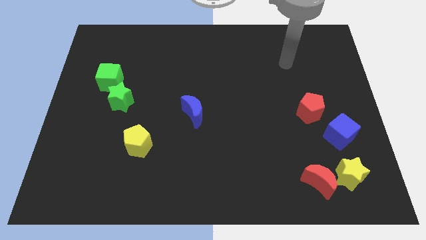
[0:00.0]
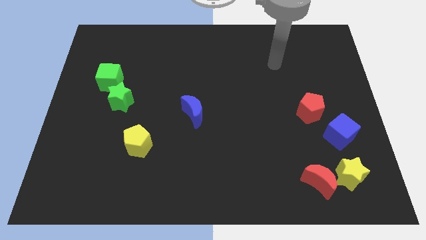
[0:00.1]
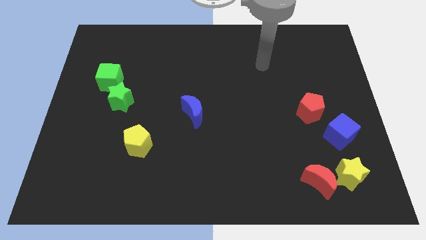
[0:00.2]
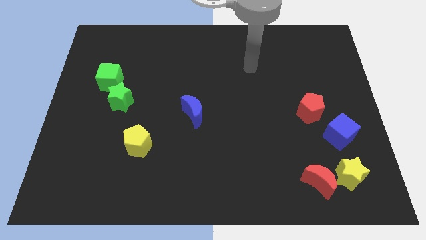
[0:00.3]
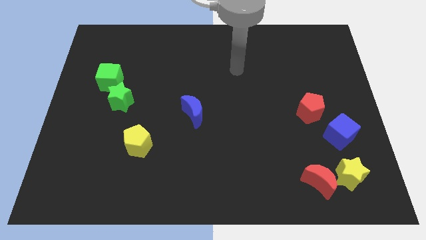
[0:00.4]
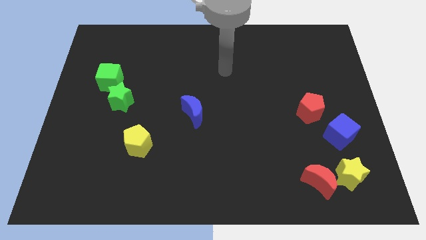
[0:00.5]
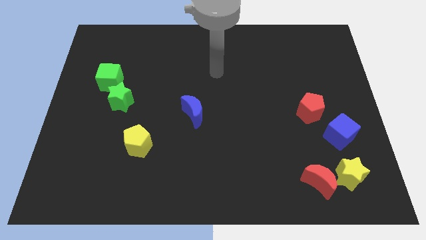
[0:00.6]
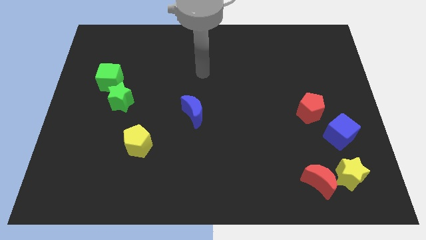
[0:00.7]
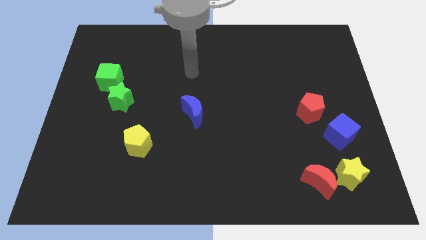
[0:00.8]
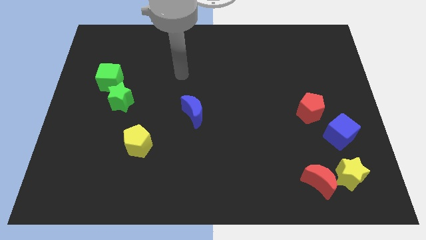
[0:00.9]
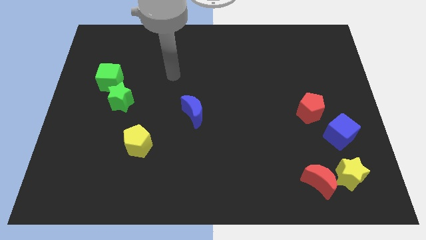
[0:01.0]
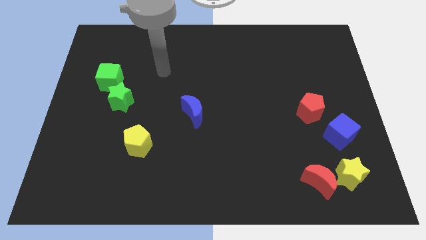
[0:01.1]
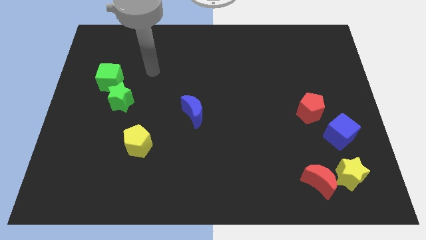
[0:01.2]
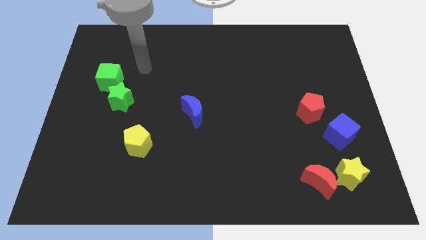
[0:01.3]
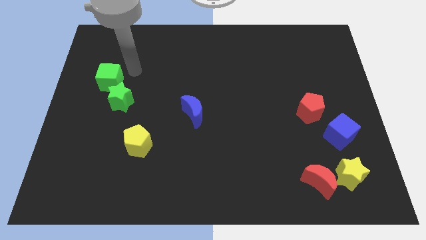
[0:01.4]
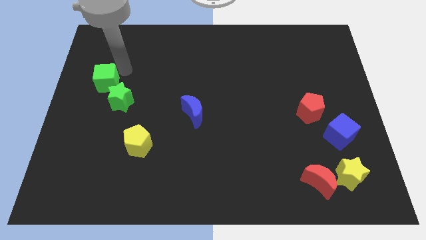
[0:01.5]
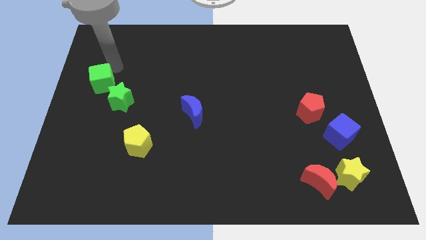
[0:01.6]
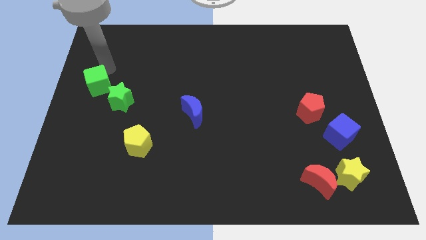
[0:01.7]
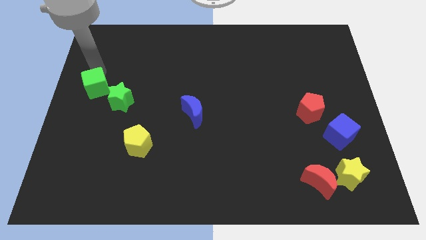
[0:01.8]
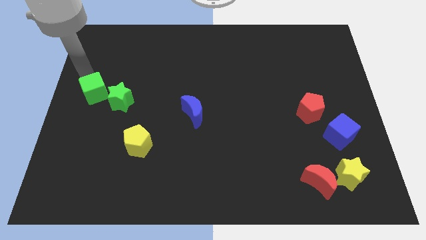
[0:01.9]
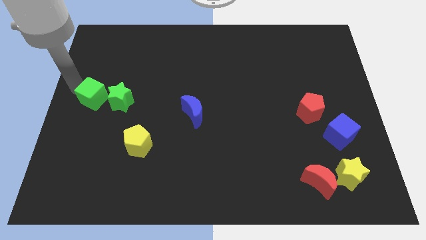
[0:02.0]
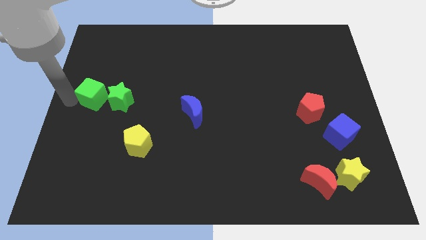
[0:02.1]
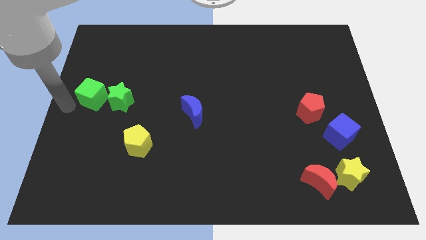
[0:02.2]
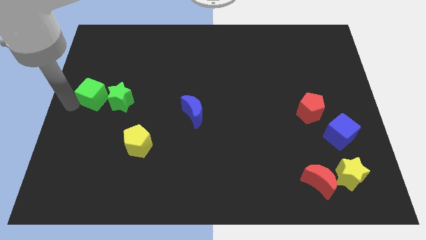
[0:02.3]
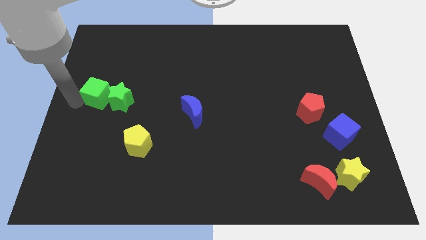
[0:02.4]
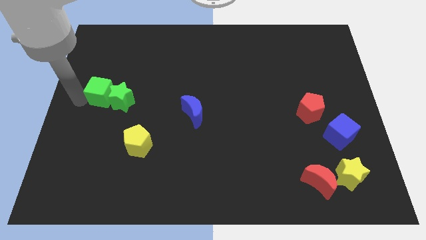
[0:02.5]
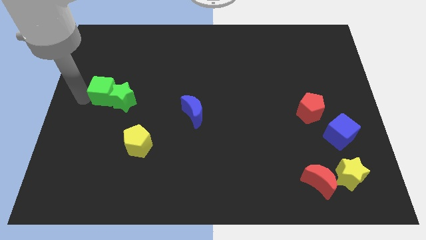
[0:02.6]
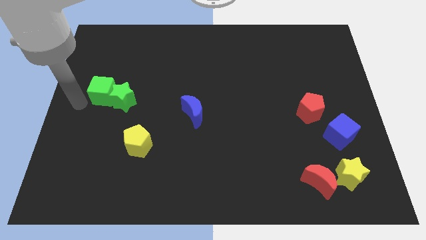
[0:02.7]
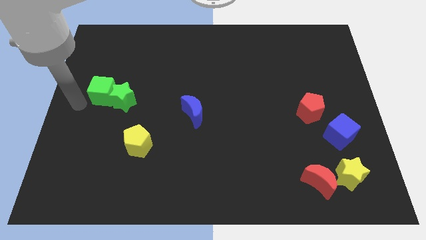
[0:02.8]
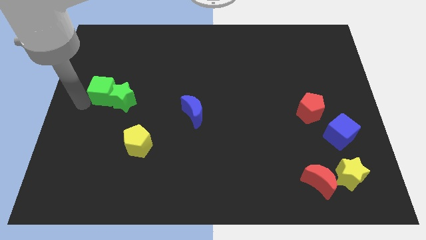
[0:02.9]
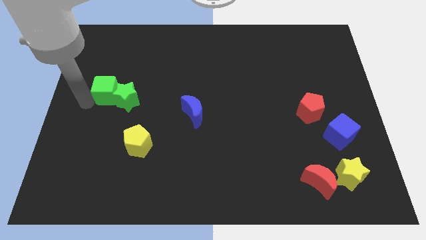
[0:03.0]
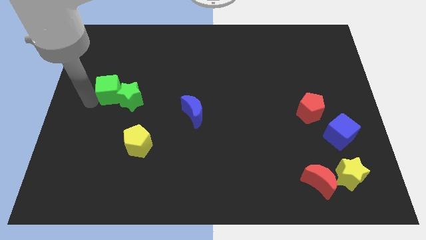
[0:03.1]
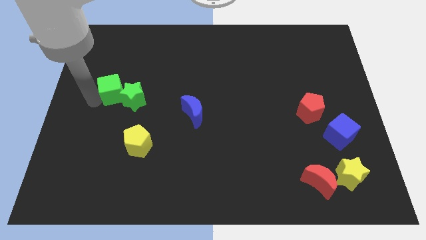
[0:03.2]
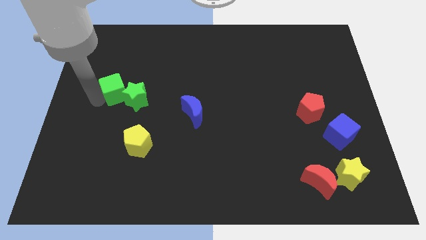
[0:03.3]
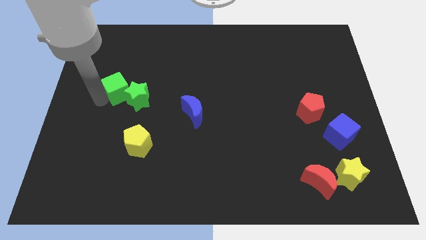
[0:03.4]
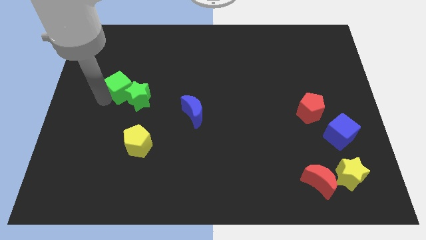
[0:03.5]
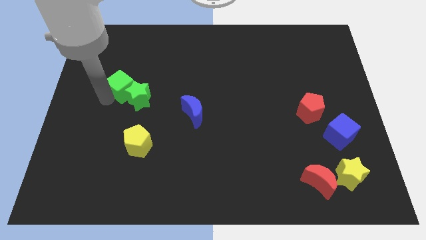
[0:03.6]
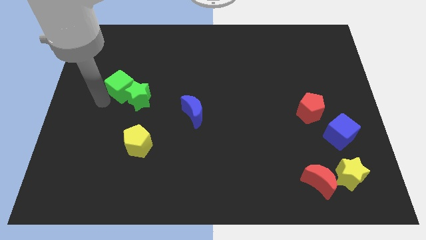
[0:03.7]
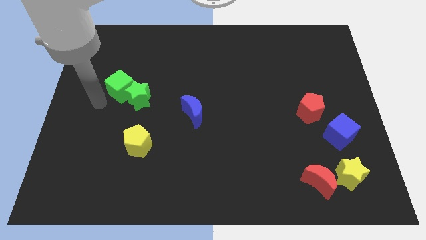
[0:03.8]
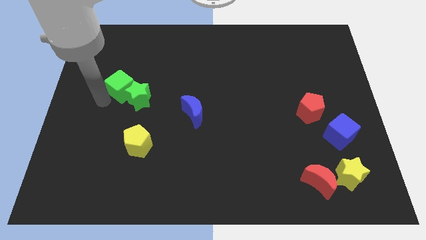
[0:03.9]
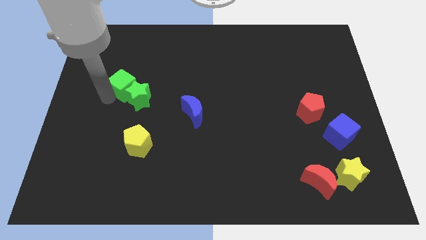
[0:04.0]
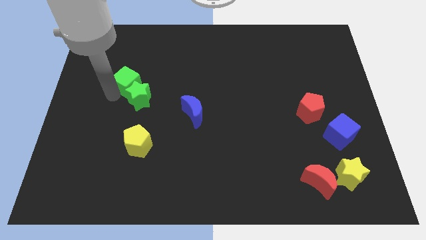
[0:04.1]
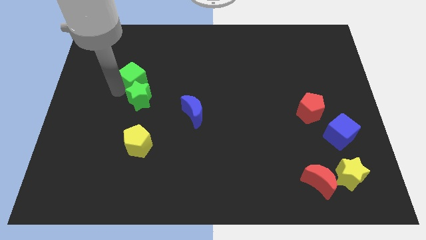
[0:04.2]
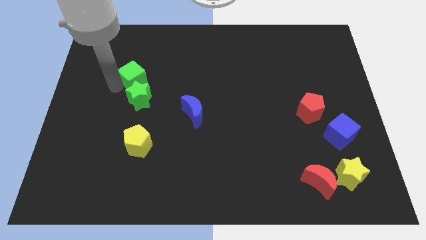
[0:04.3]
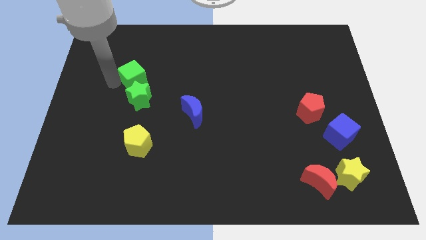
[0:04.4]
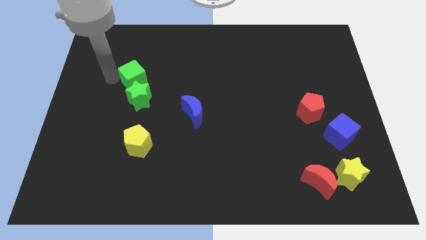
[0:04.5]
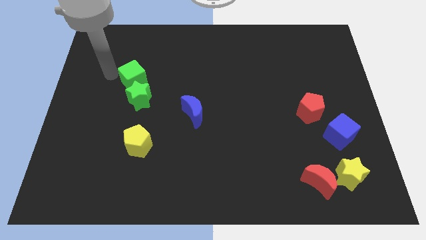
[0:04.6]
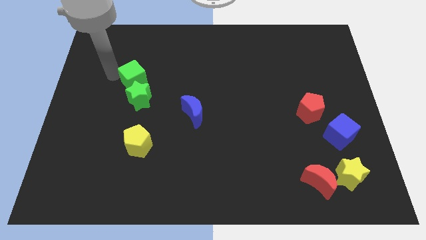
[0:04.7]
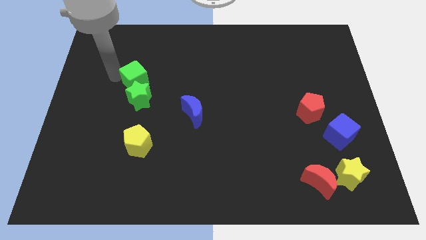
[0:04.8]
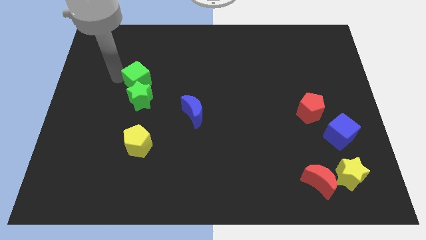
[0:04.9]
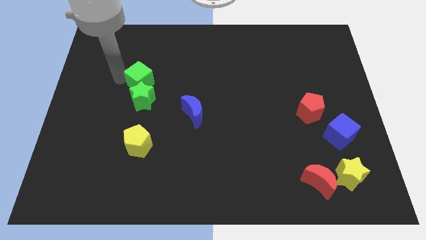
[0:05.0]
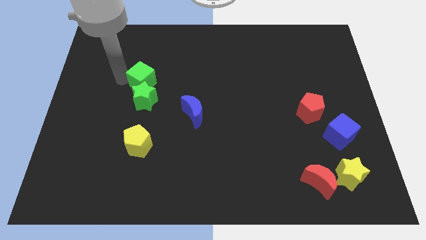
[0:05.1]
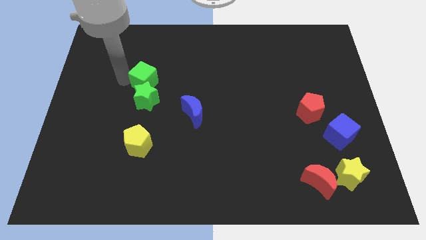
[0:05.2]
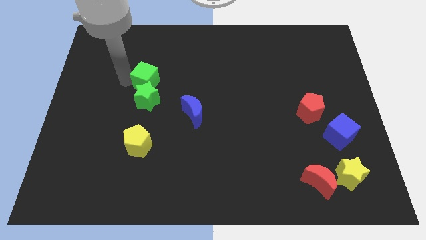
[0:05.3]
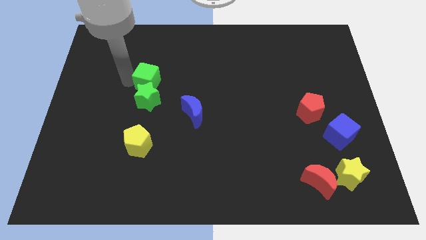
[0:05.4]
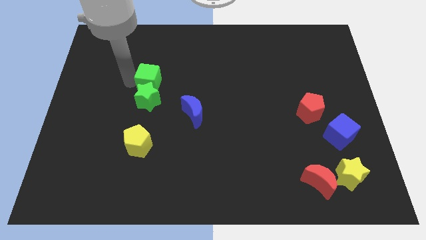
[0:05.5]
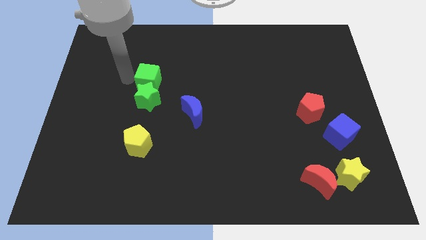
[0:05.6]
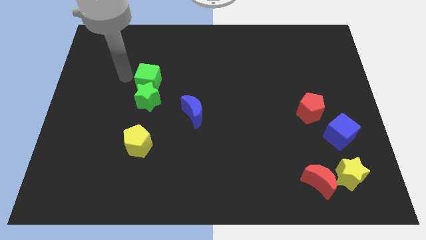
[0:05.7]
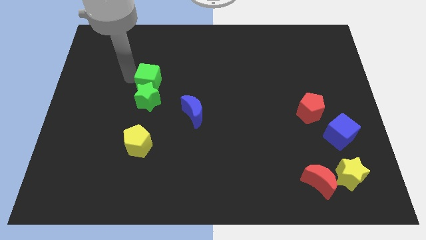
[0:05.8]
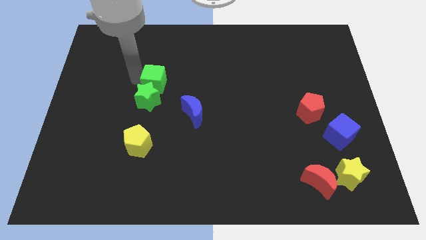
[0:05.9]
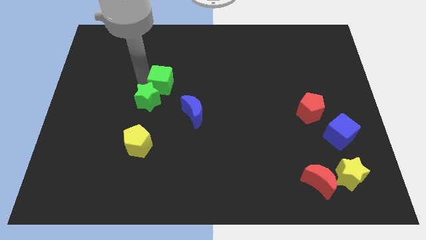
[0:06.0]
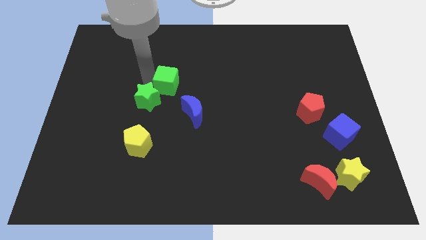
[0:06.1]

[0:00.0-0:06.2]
move the green cube to the middle

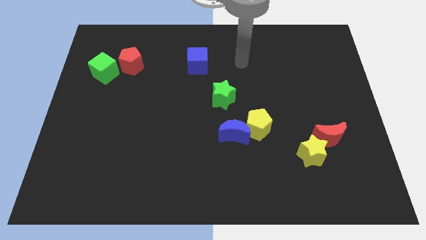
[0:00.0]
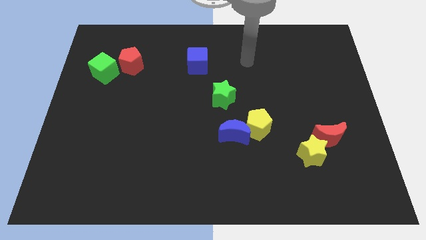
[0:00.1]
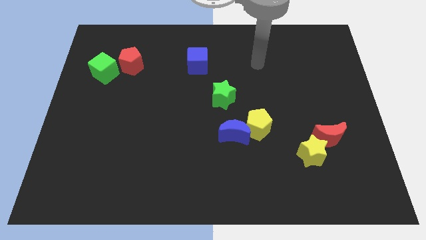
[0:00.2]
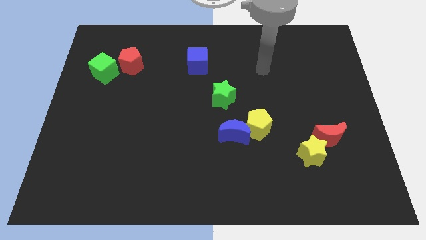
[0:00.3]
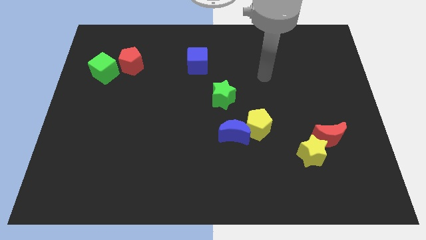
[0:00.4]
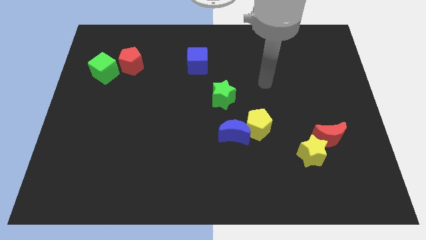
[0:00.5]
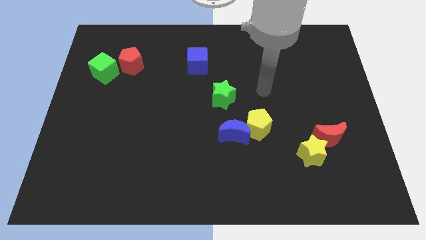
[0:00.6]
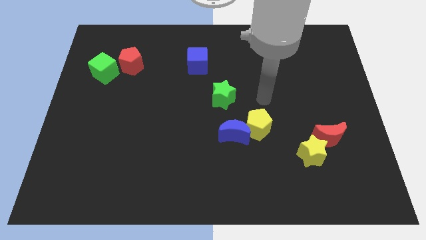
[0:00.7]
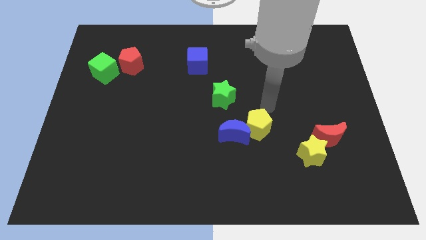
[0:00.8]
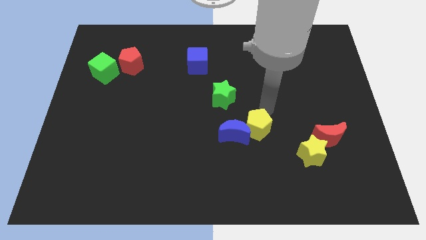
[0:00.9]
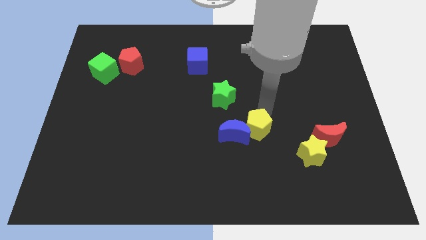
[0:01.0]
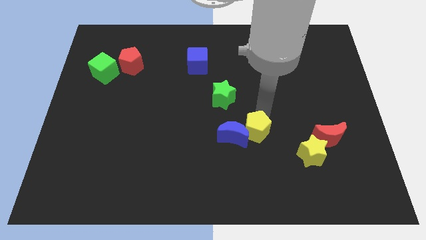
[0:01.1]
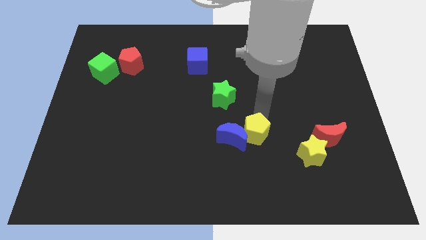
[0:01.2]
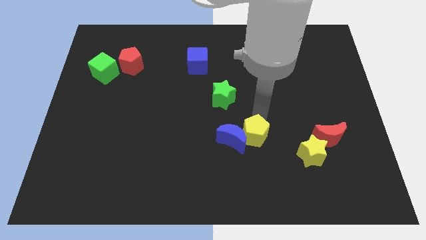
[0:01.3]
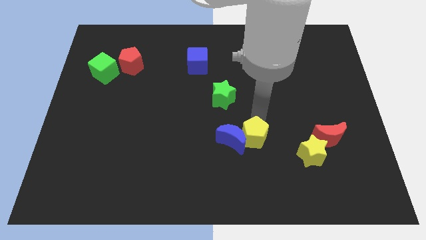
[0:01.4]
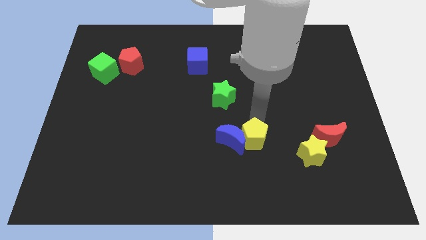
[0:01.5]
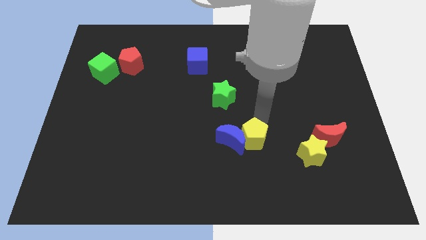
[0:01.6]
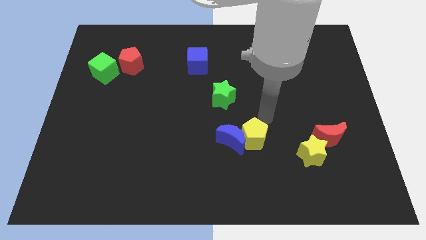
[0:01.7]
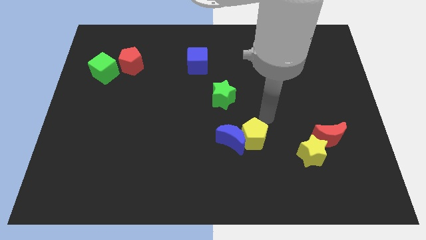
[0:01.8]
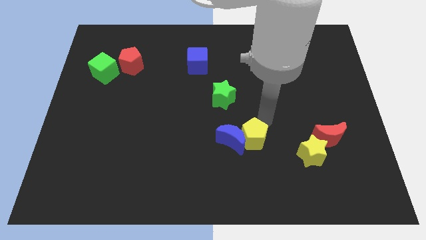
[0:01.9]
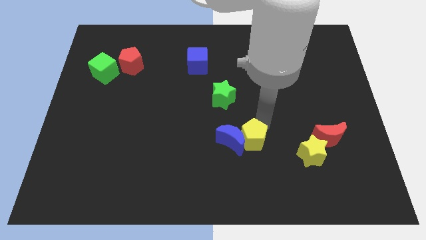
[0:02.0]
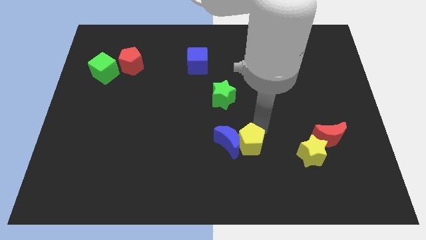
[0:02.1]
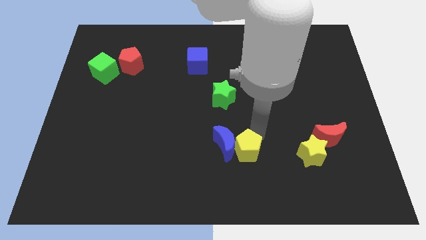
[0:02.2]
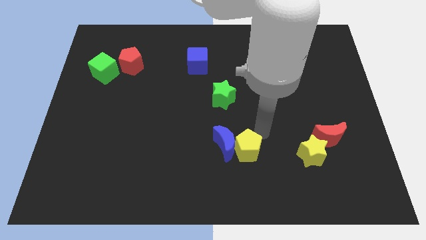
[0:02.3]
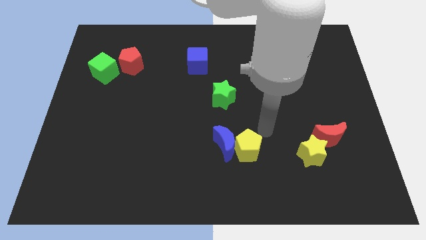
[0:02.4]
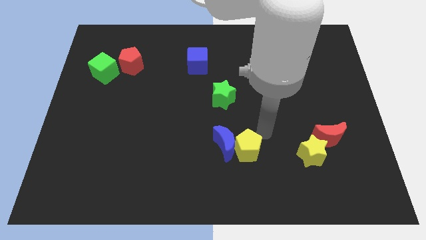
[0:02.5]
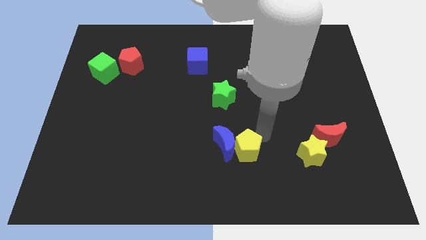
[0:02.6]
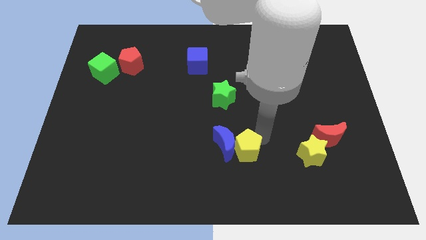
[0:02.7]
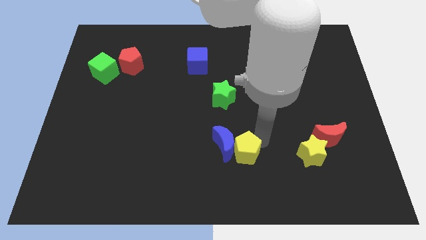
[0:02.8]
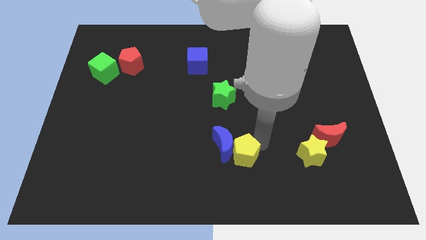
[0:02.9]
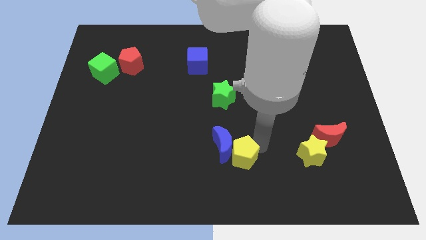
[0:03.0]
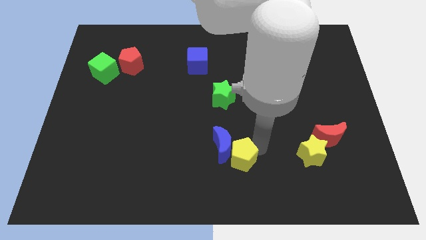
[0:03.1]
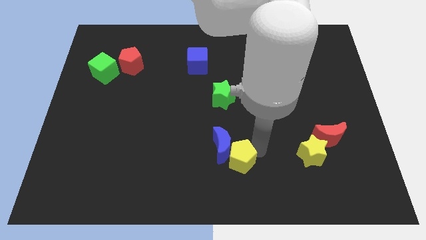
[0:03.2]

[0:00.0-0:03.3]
push the yellow pentagon to the bottom
